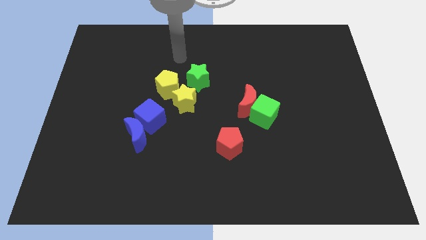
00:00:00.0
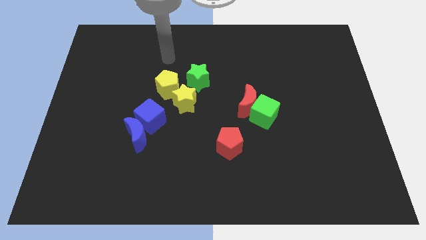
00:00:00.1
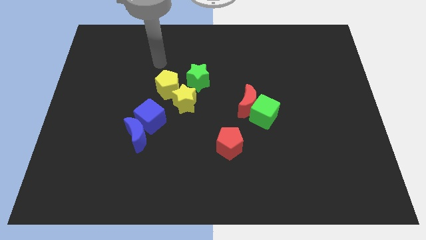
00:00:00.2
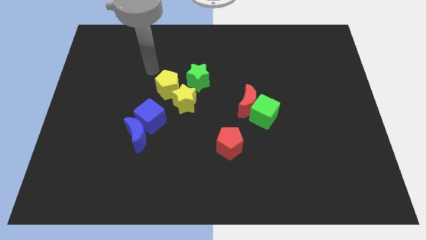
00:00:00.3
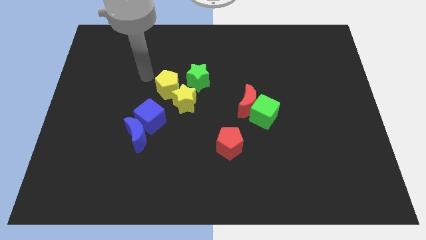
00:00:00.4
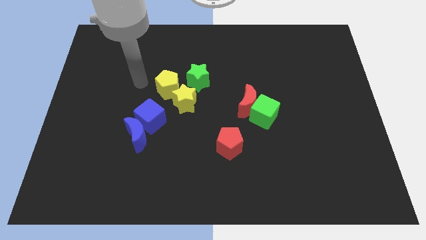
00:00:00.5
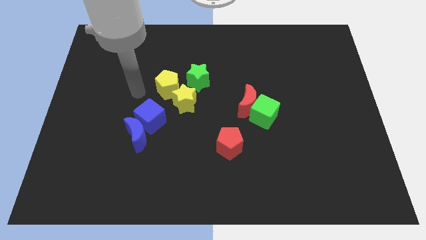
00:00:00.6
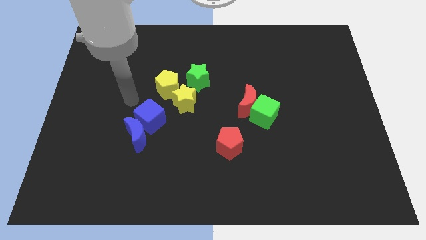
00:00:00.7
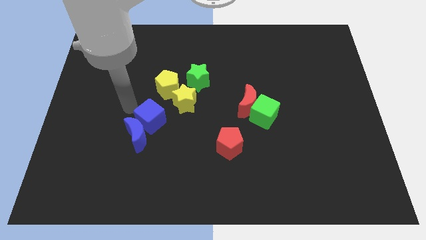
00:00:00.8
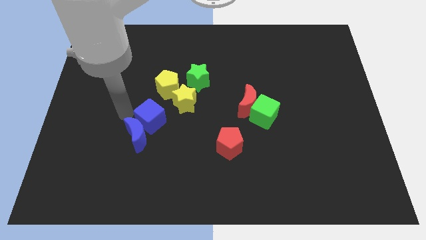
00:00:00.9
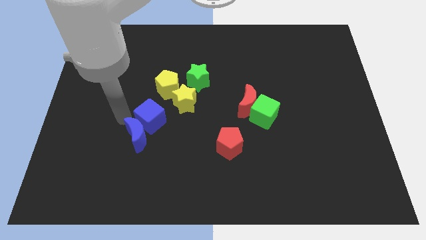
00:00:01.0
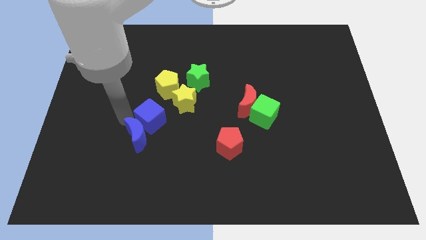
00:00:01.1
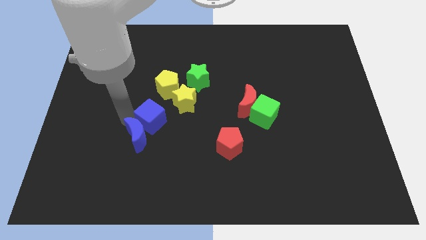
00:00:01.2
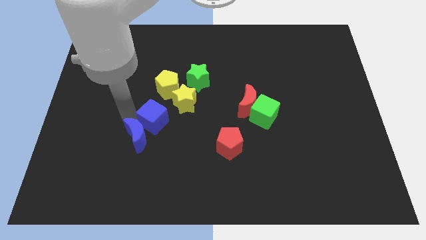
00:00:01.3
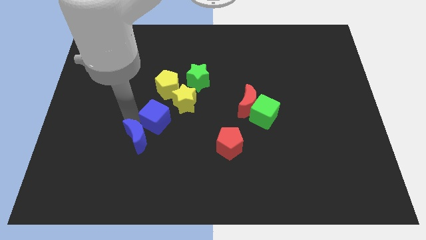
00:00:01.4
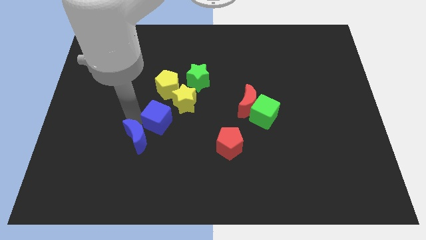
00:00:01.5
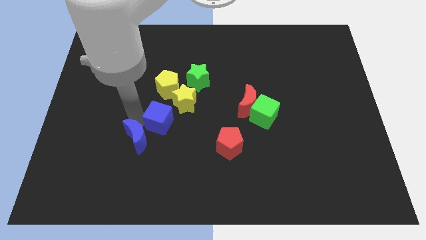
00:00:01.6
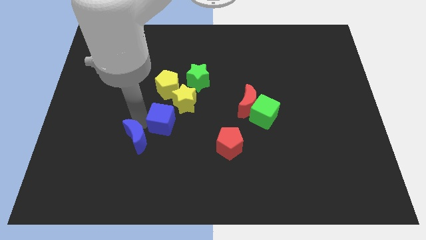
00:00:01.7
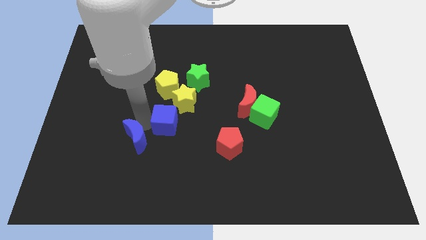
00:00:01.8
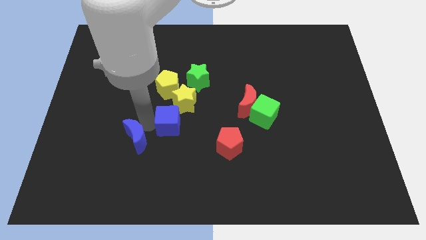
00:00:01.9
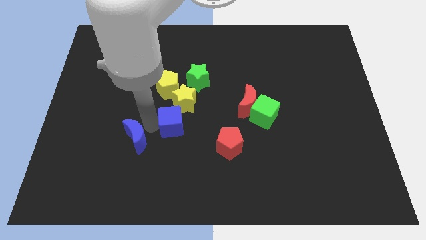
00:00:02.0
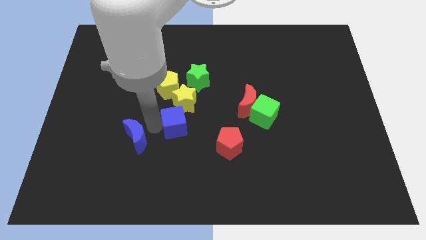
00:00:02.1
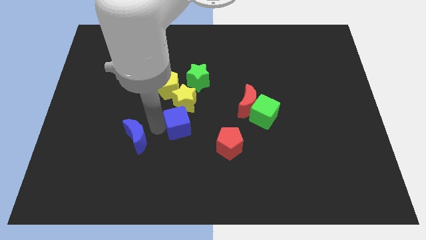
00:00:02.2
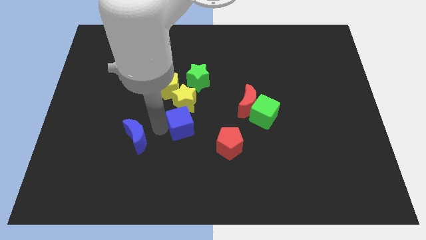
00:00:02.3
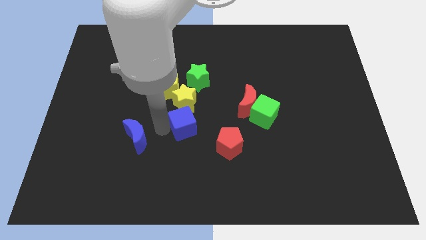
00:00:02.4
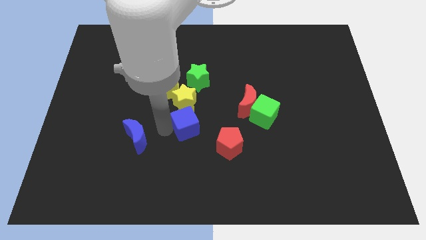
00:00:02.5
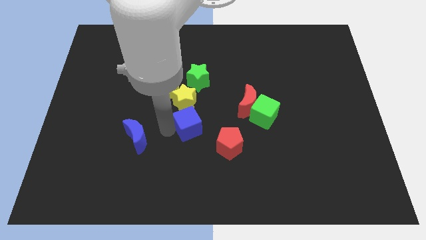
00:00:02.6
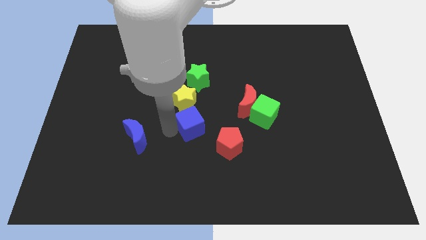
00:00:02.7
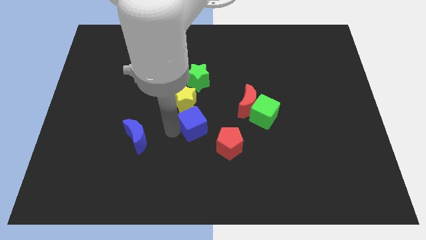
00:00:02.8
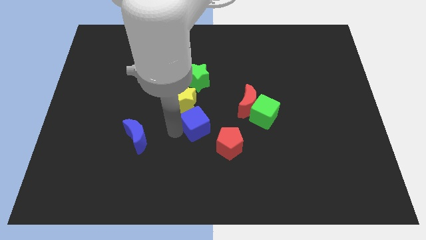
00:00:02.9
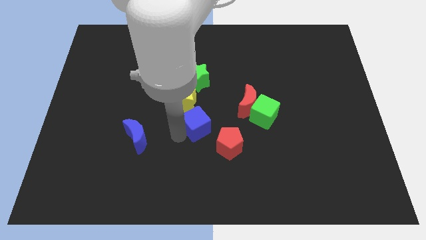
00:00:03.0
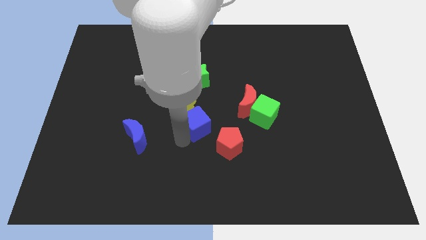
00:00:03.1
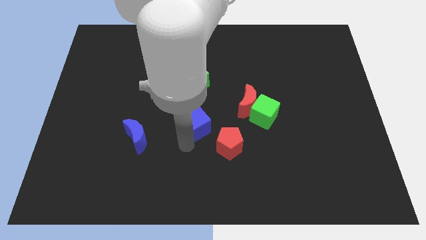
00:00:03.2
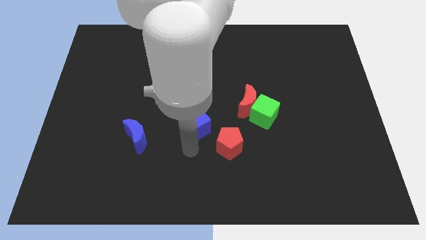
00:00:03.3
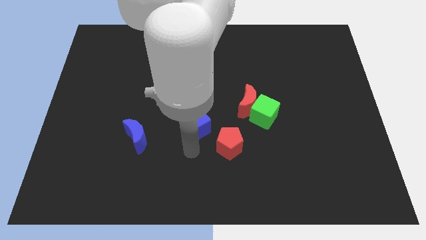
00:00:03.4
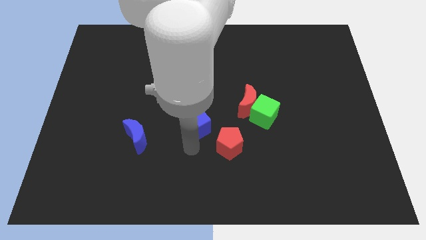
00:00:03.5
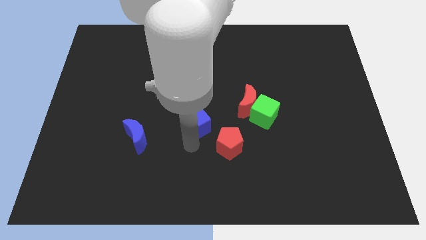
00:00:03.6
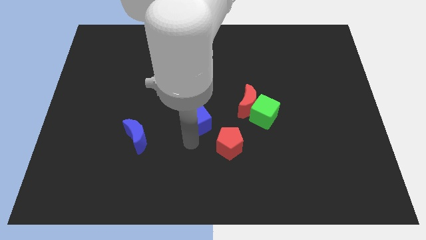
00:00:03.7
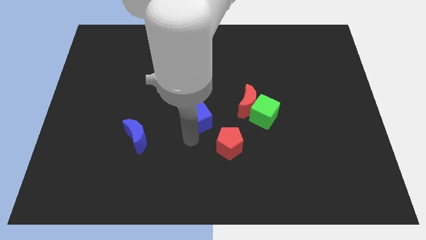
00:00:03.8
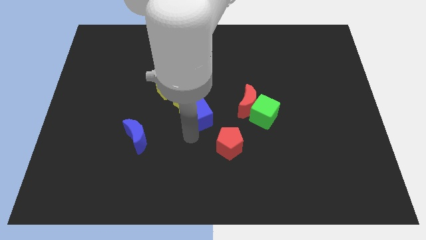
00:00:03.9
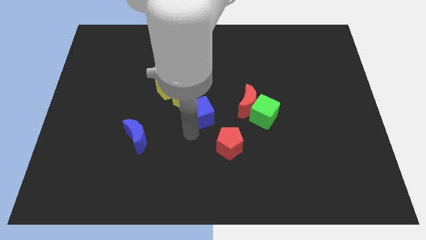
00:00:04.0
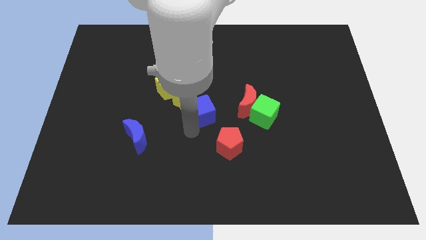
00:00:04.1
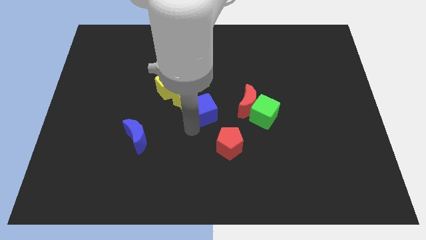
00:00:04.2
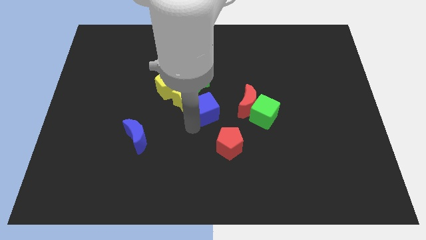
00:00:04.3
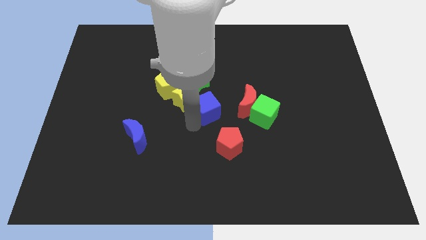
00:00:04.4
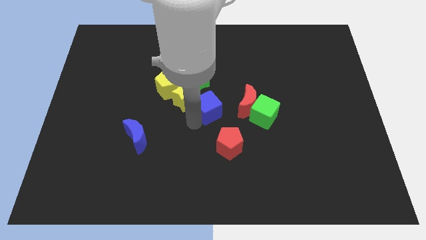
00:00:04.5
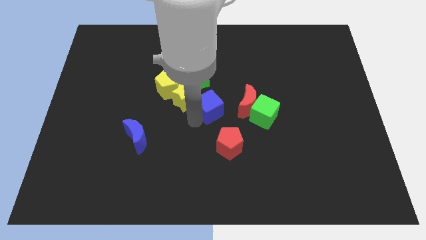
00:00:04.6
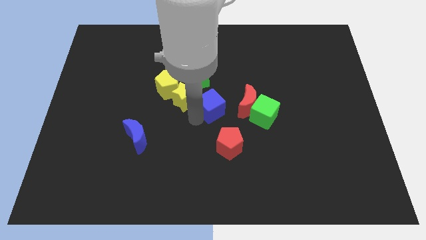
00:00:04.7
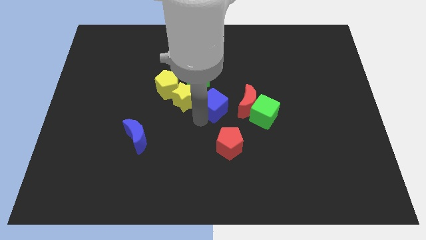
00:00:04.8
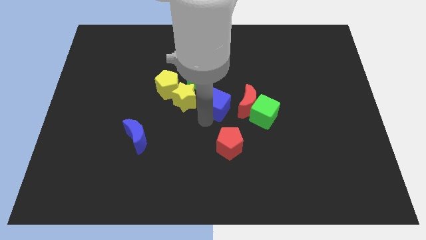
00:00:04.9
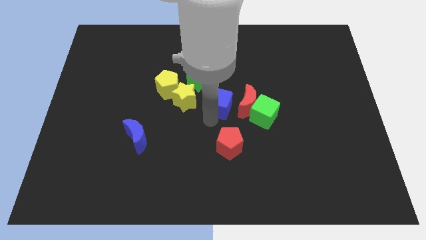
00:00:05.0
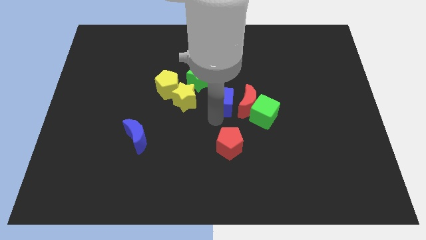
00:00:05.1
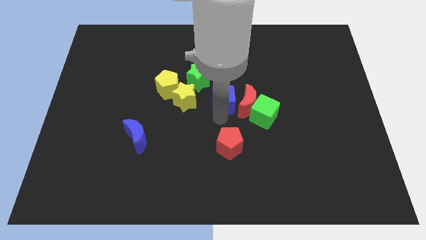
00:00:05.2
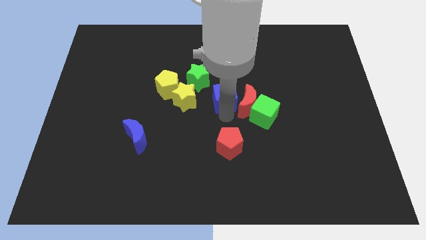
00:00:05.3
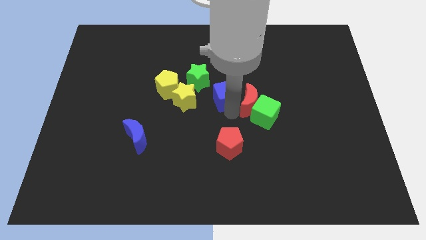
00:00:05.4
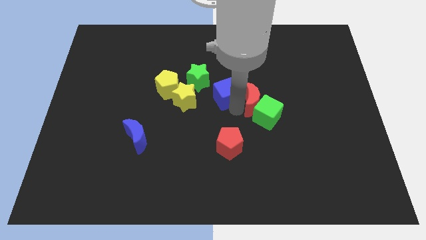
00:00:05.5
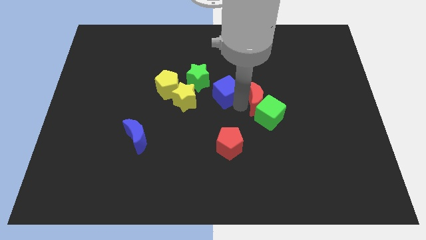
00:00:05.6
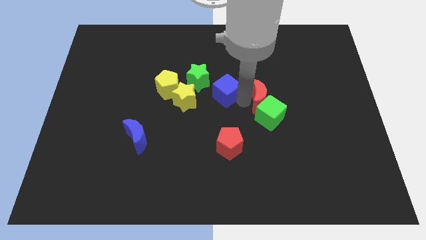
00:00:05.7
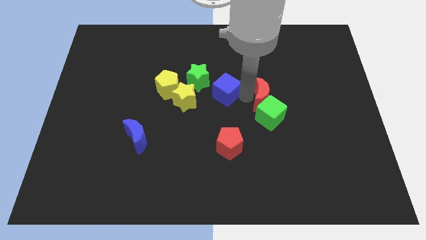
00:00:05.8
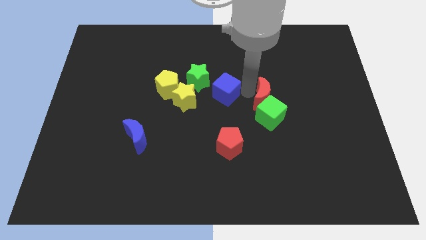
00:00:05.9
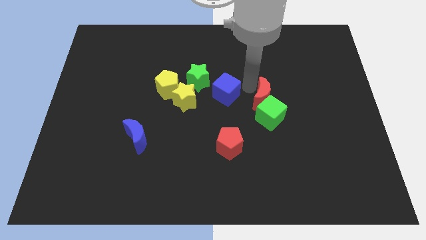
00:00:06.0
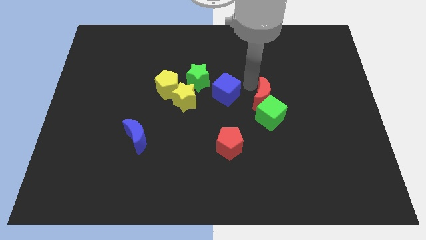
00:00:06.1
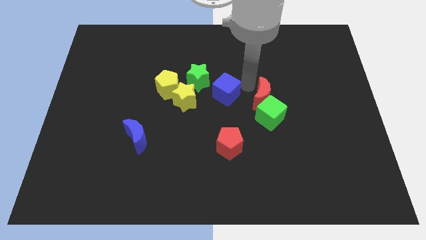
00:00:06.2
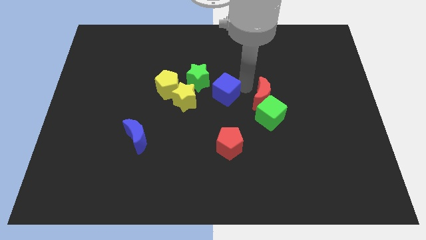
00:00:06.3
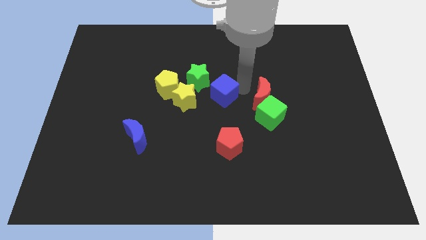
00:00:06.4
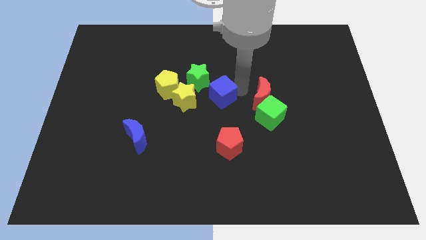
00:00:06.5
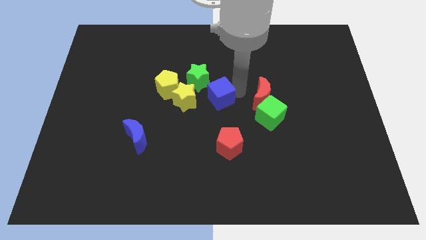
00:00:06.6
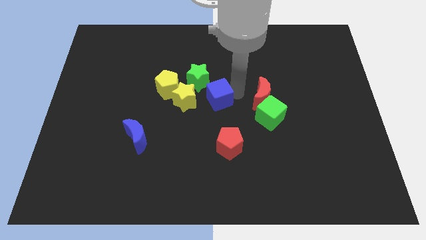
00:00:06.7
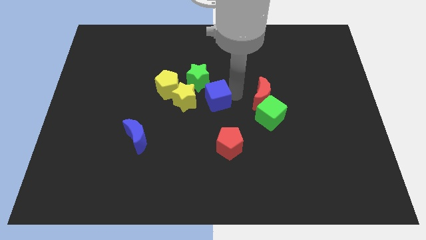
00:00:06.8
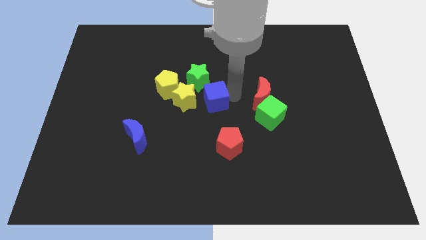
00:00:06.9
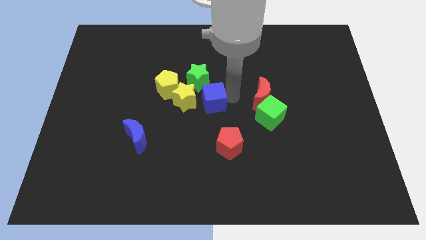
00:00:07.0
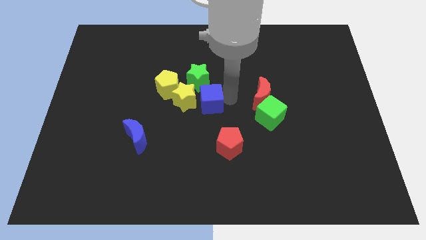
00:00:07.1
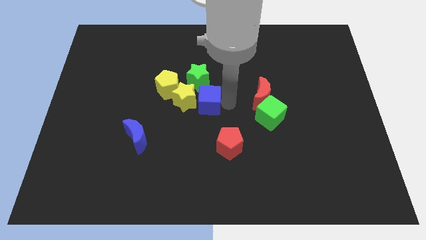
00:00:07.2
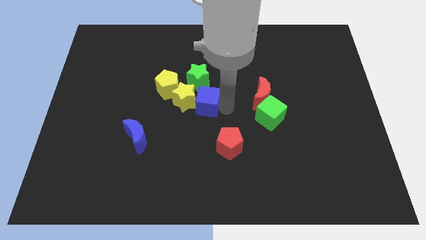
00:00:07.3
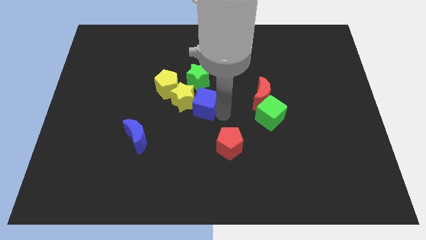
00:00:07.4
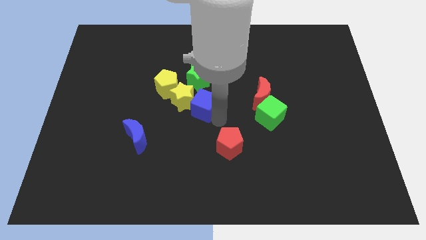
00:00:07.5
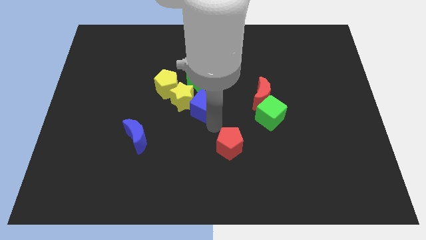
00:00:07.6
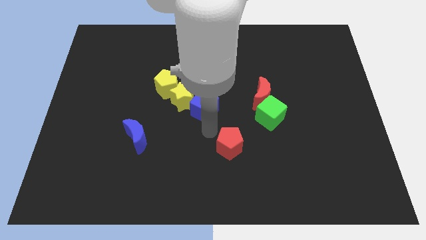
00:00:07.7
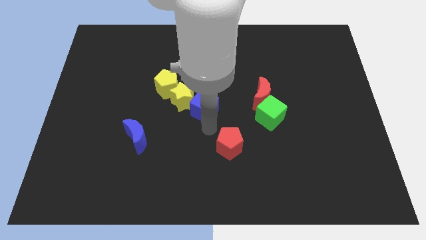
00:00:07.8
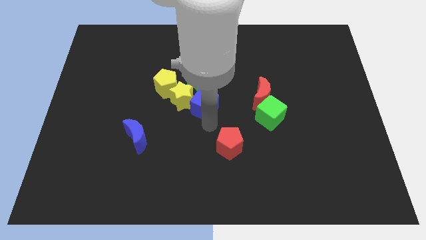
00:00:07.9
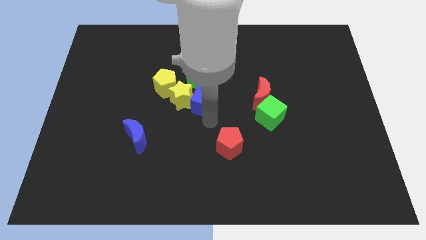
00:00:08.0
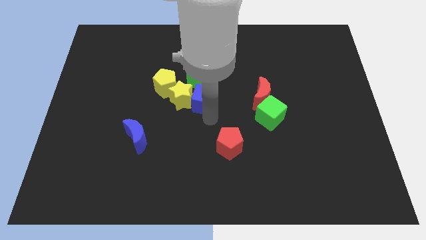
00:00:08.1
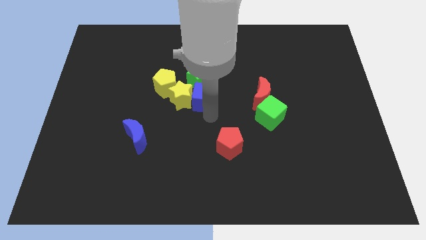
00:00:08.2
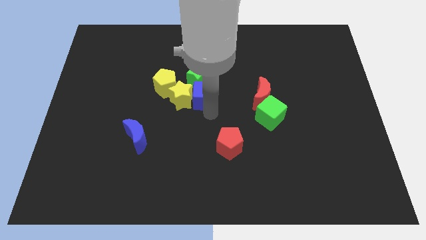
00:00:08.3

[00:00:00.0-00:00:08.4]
slide the blue cube to the green star
